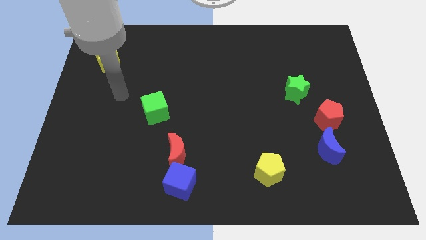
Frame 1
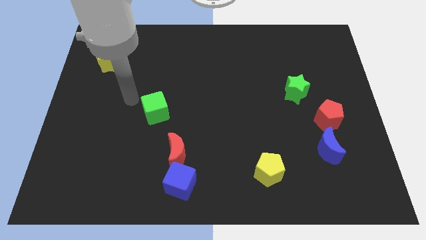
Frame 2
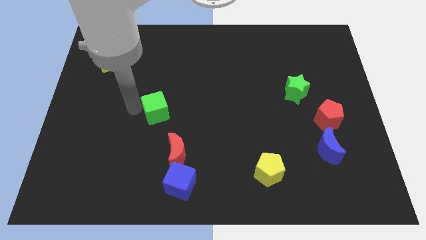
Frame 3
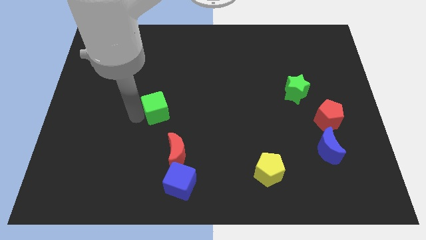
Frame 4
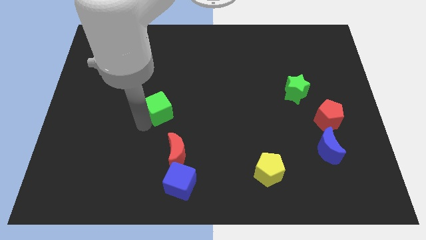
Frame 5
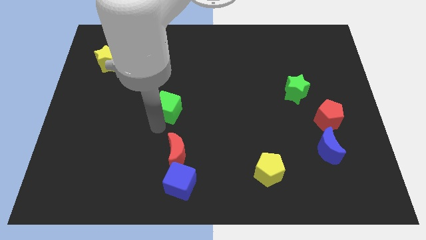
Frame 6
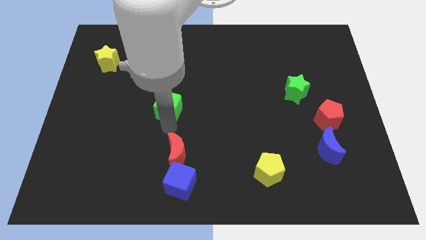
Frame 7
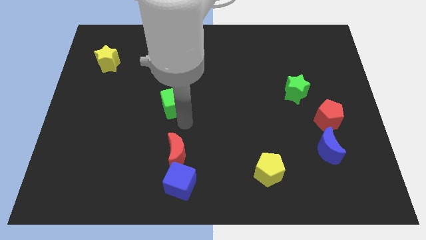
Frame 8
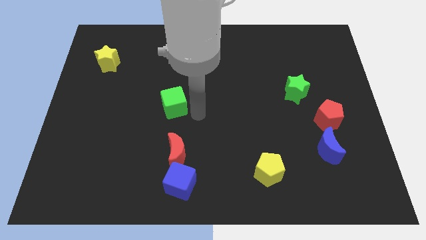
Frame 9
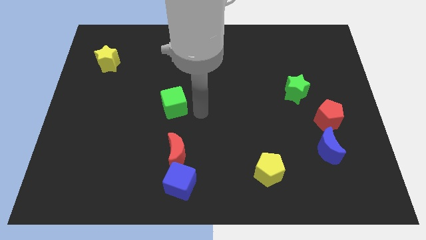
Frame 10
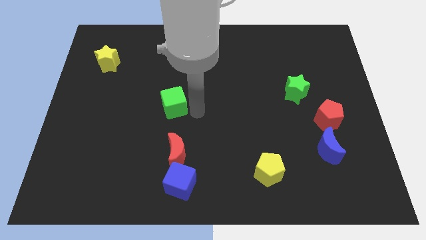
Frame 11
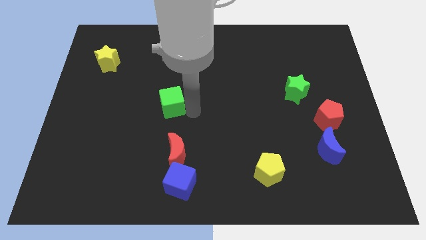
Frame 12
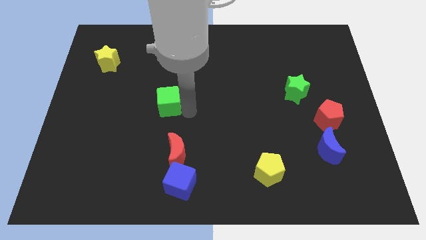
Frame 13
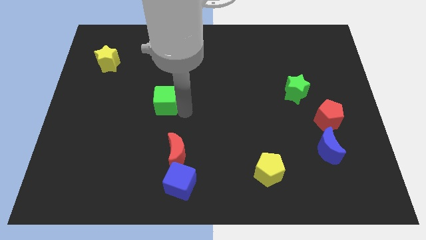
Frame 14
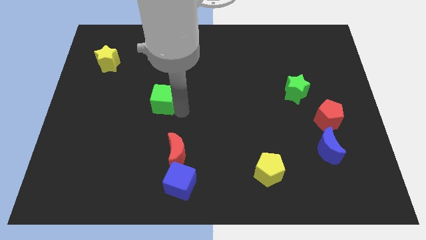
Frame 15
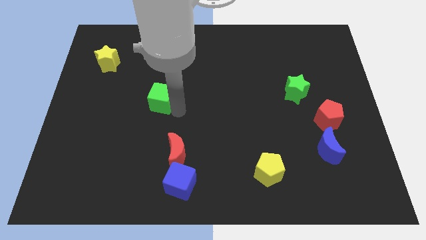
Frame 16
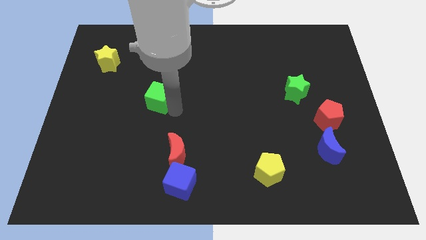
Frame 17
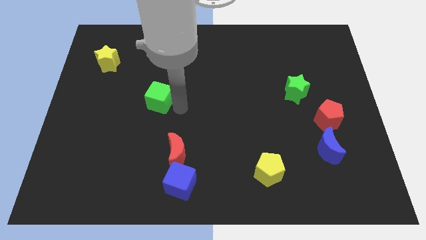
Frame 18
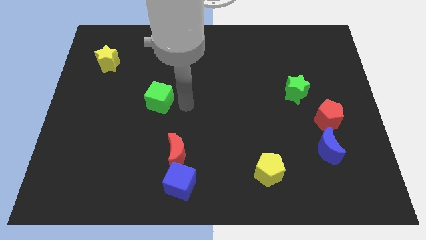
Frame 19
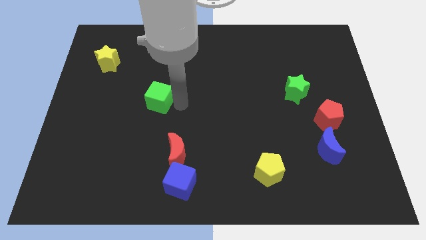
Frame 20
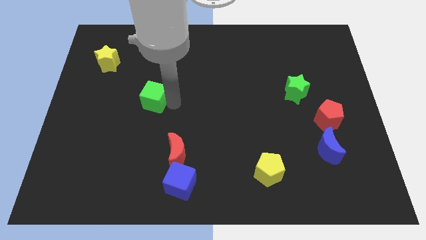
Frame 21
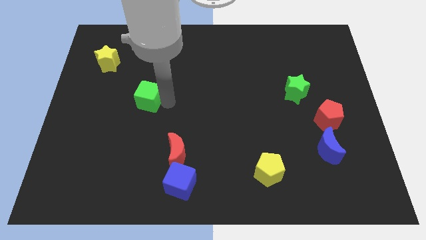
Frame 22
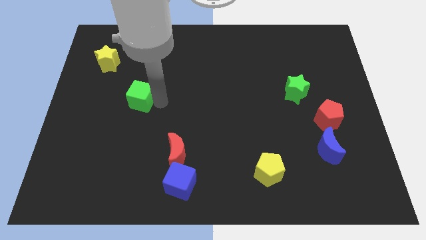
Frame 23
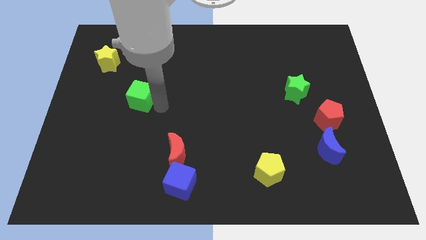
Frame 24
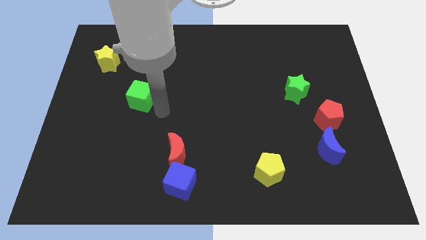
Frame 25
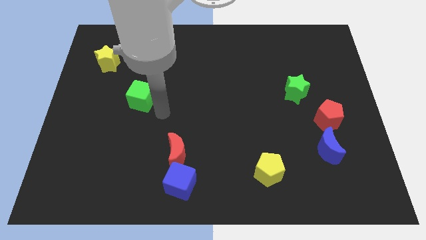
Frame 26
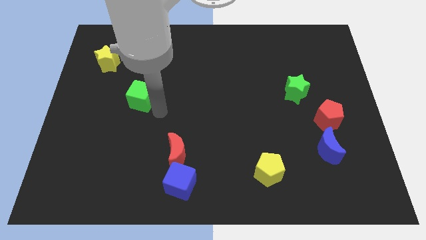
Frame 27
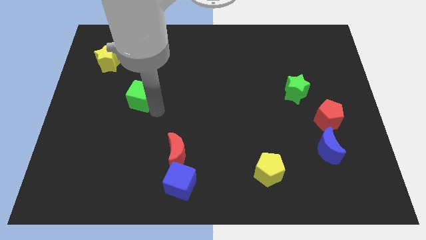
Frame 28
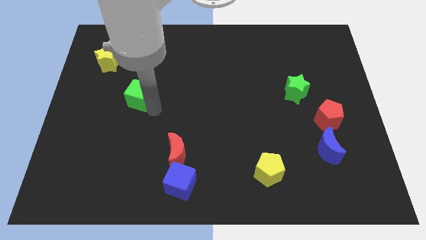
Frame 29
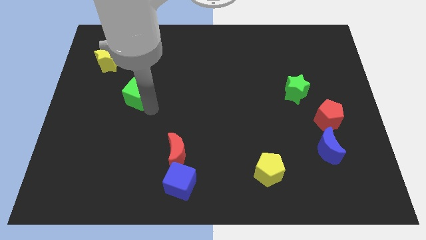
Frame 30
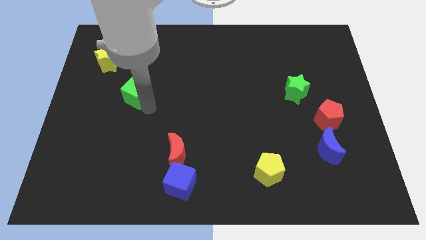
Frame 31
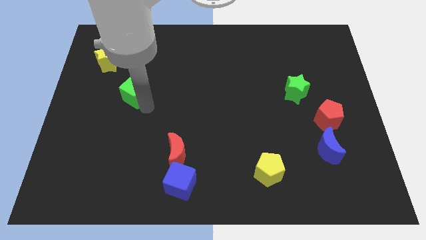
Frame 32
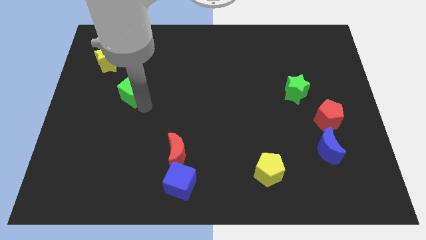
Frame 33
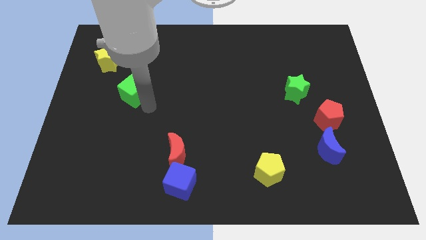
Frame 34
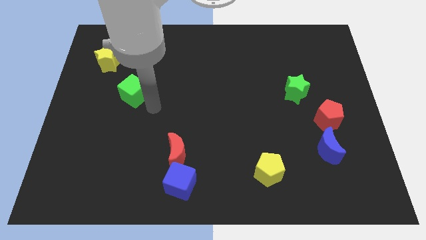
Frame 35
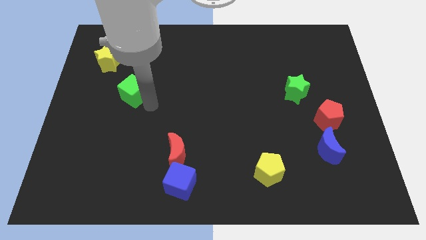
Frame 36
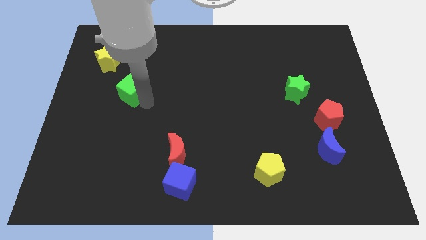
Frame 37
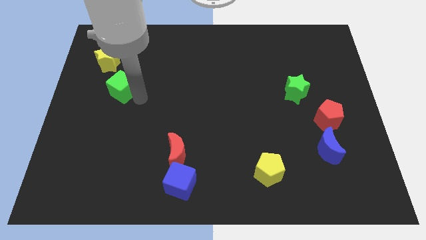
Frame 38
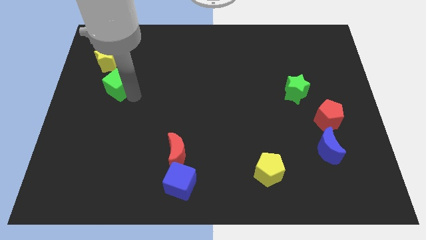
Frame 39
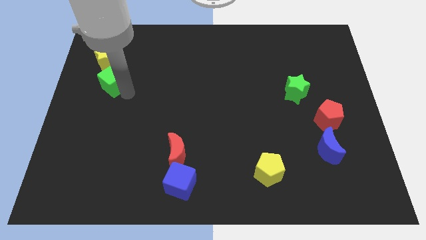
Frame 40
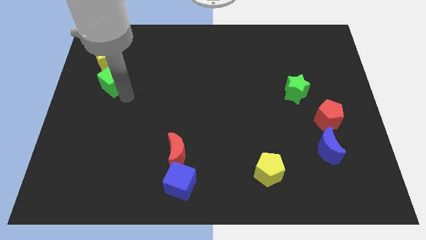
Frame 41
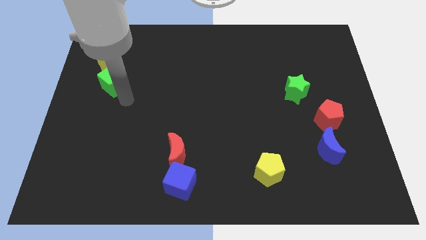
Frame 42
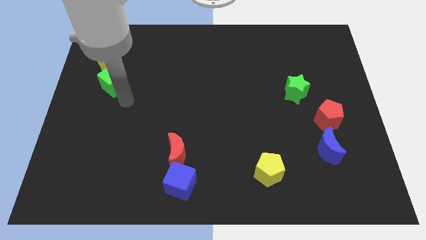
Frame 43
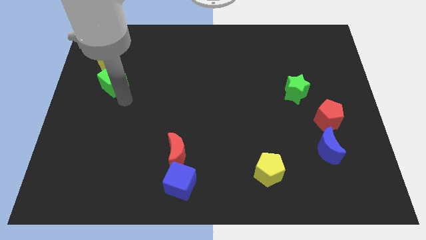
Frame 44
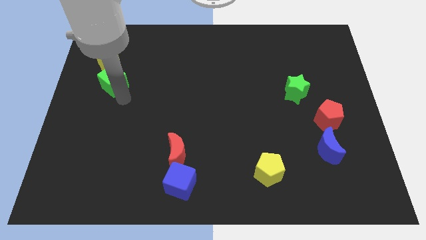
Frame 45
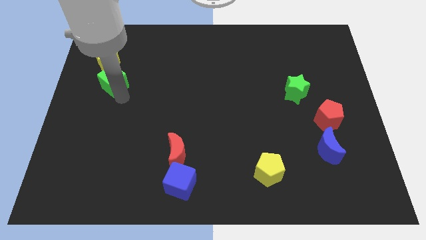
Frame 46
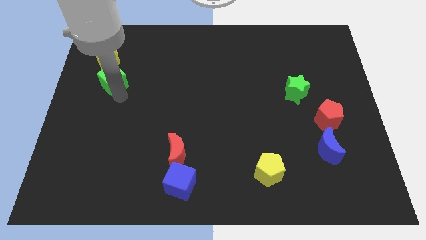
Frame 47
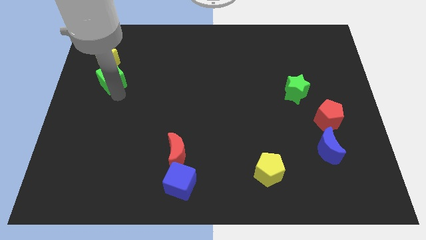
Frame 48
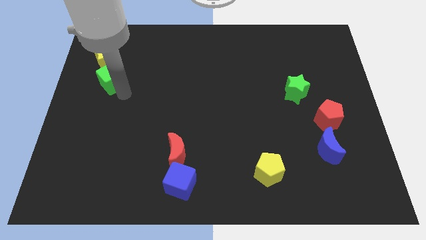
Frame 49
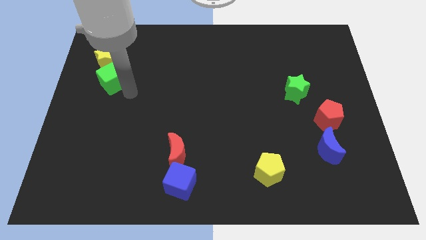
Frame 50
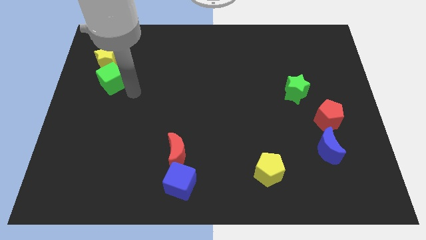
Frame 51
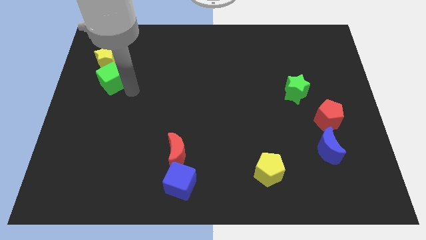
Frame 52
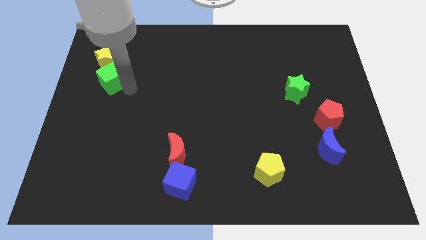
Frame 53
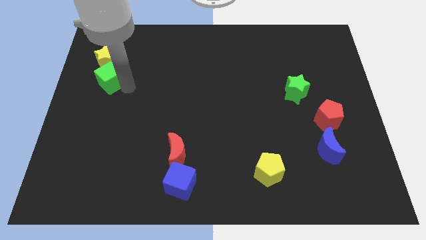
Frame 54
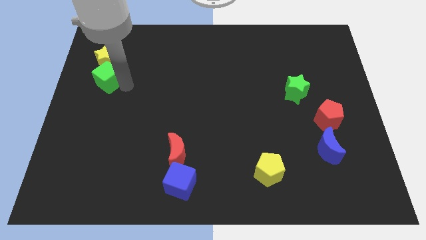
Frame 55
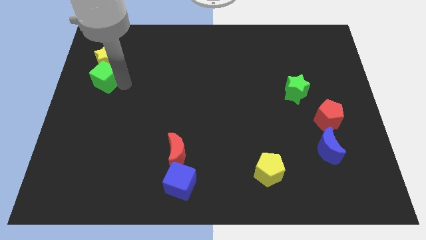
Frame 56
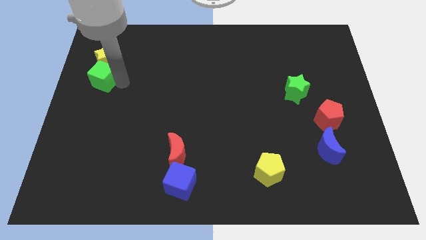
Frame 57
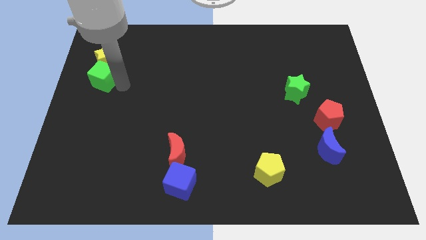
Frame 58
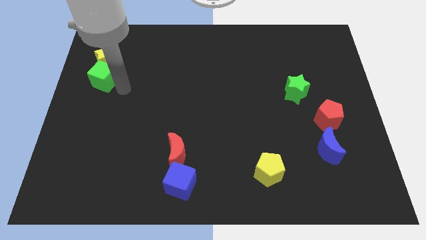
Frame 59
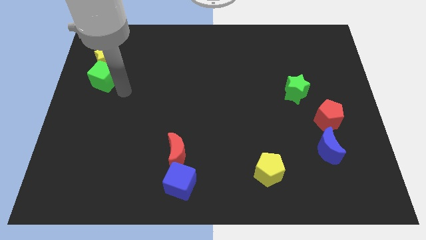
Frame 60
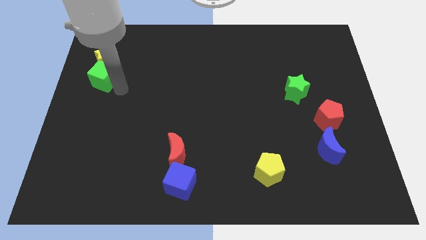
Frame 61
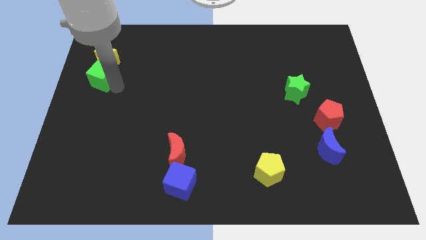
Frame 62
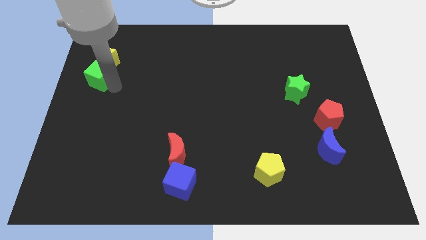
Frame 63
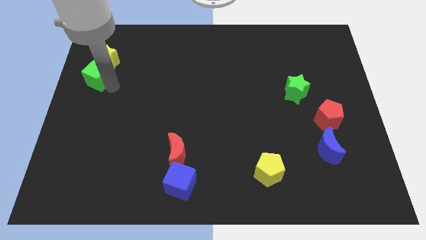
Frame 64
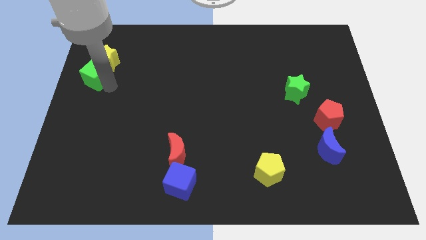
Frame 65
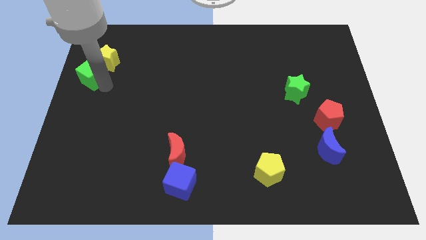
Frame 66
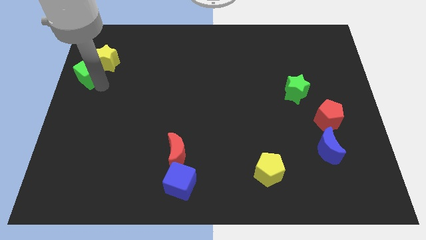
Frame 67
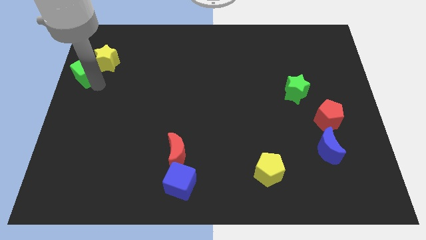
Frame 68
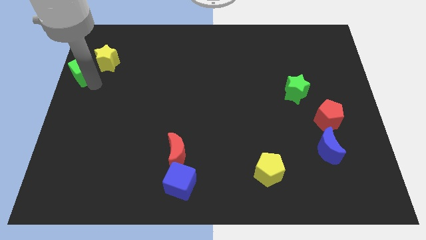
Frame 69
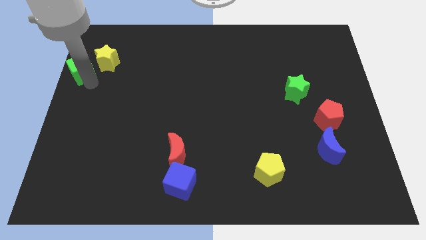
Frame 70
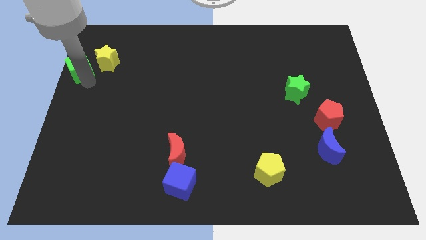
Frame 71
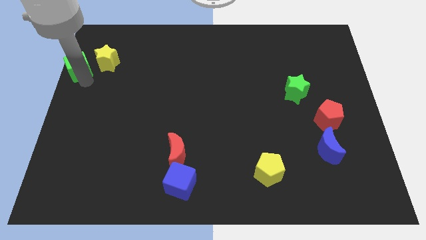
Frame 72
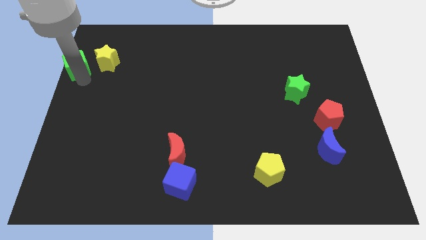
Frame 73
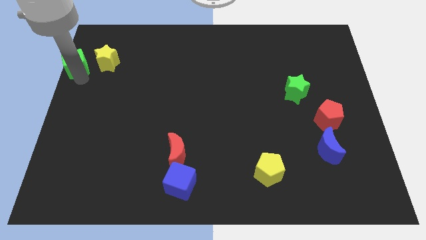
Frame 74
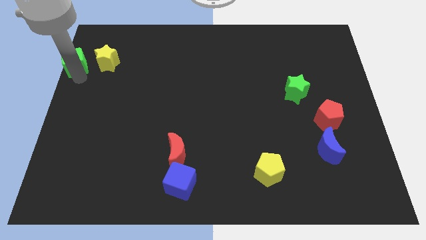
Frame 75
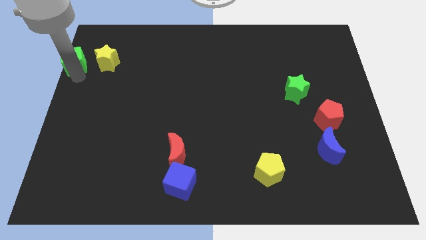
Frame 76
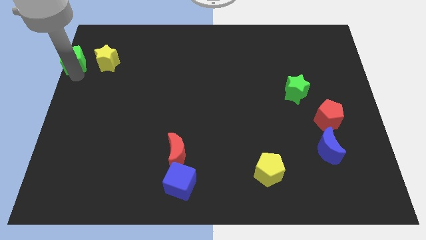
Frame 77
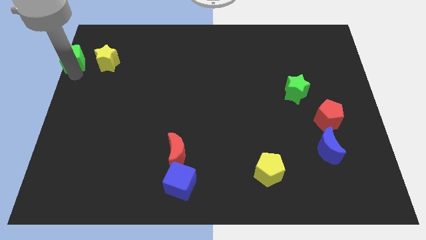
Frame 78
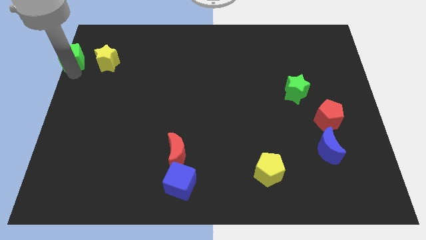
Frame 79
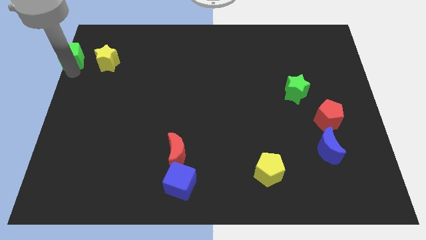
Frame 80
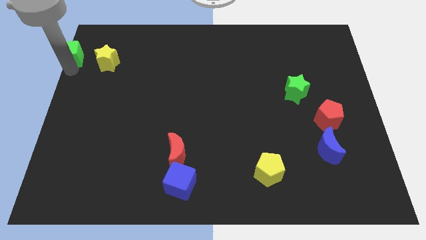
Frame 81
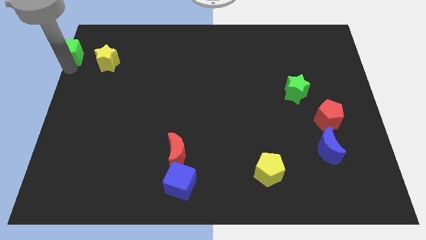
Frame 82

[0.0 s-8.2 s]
move the green cube to the top left corner
